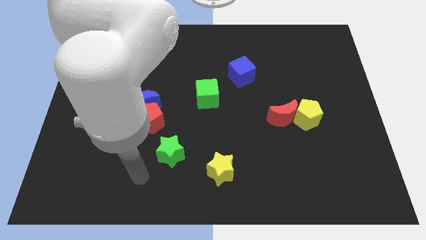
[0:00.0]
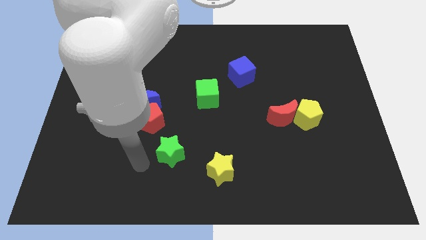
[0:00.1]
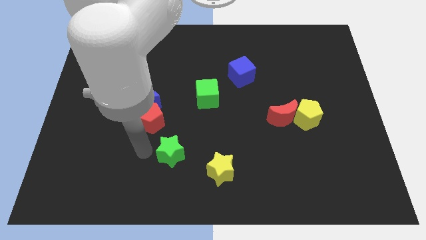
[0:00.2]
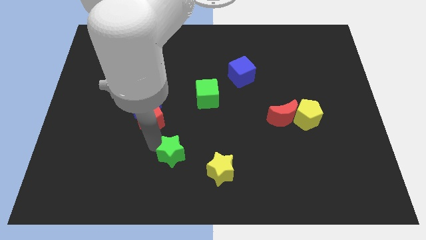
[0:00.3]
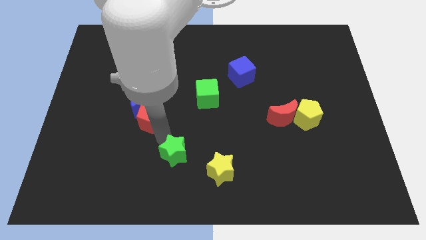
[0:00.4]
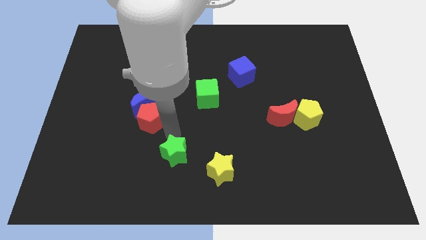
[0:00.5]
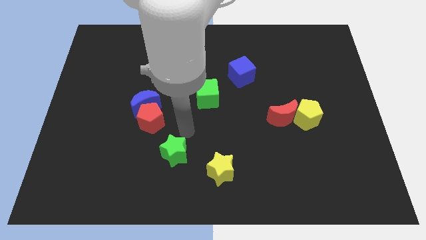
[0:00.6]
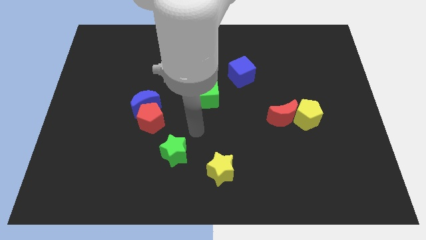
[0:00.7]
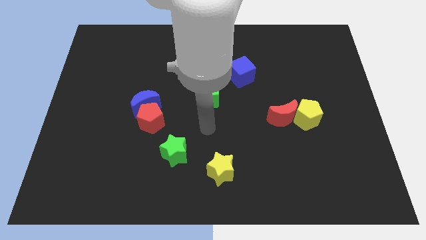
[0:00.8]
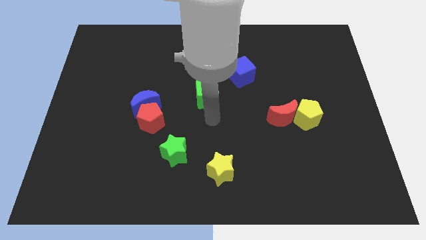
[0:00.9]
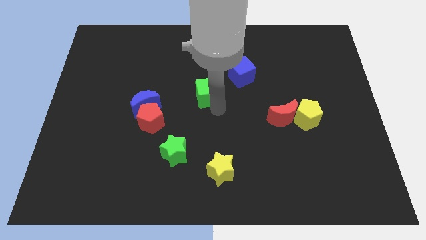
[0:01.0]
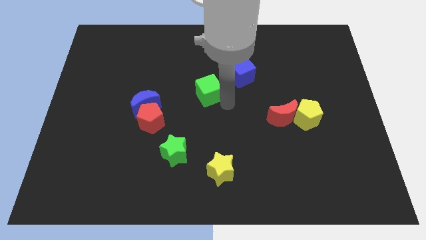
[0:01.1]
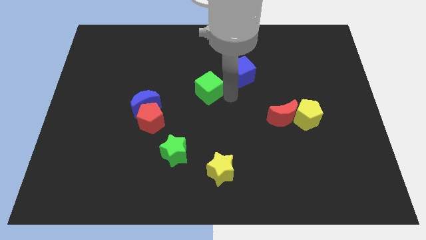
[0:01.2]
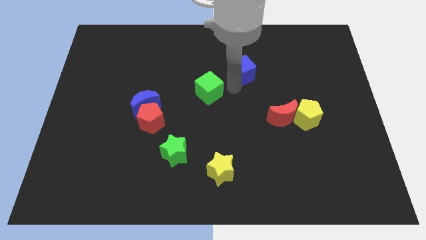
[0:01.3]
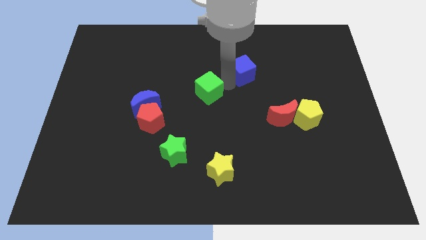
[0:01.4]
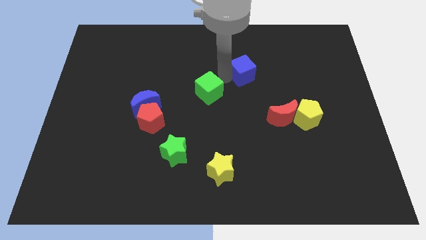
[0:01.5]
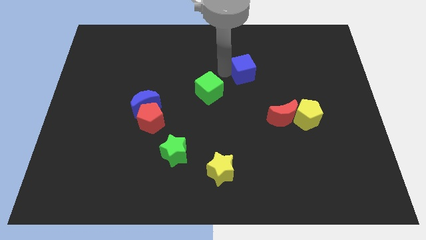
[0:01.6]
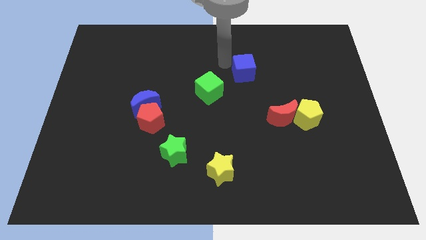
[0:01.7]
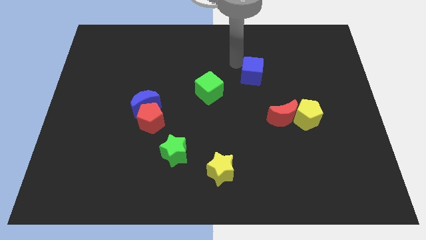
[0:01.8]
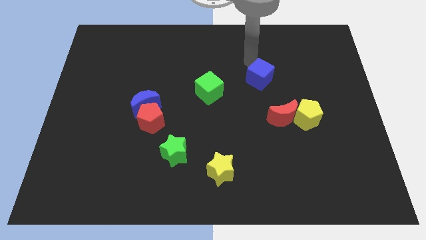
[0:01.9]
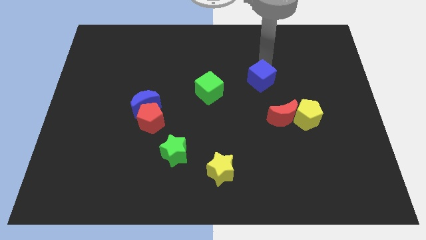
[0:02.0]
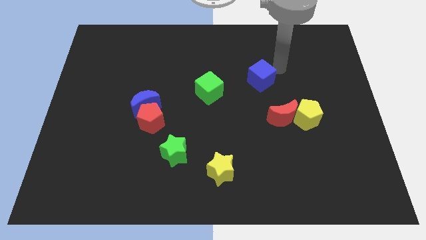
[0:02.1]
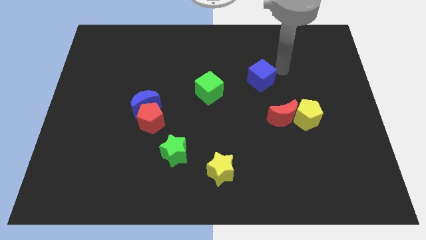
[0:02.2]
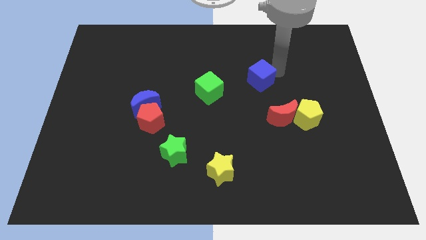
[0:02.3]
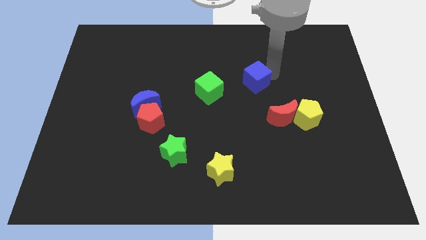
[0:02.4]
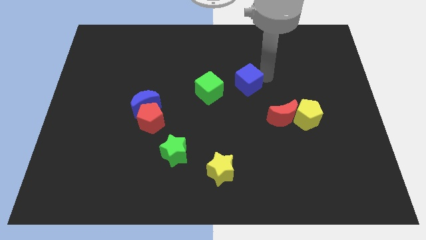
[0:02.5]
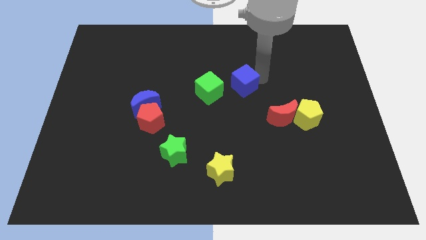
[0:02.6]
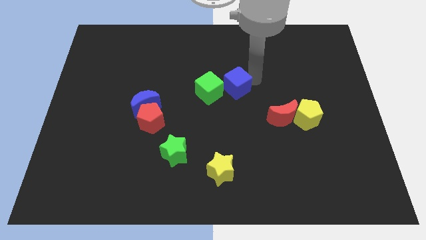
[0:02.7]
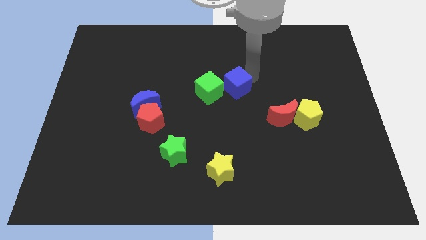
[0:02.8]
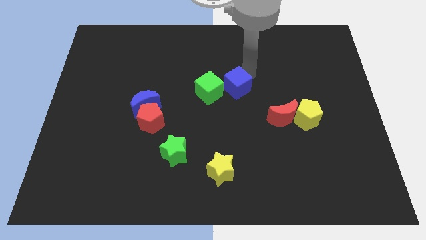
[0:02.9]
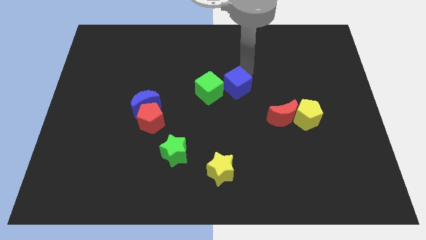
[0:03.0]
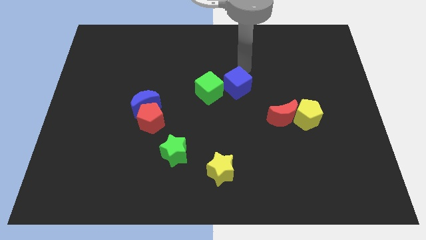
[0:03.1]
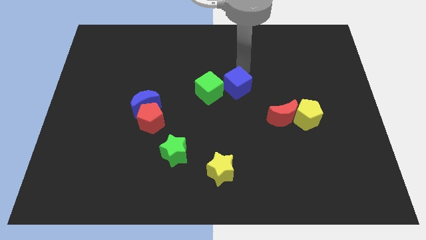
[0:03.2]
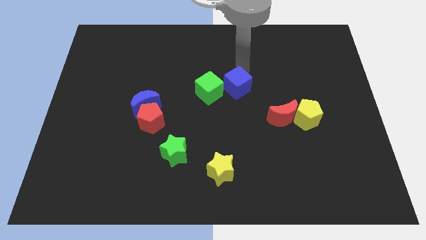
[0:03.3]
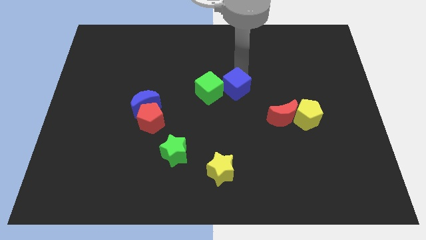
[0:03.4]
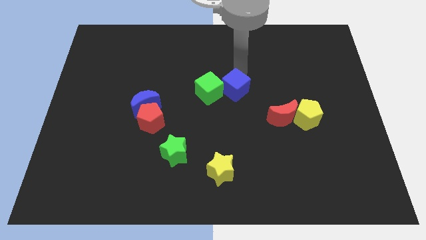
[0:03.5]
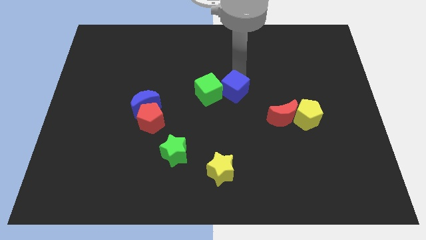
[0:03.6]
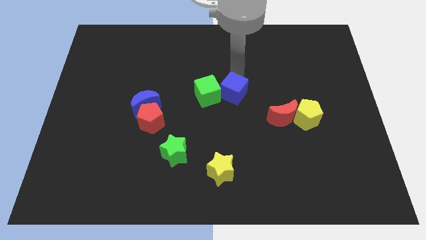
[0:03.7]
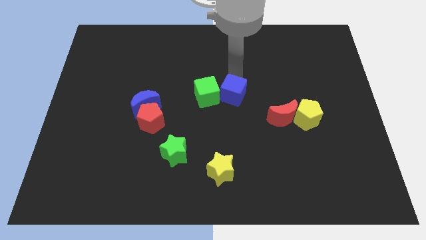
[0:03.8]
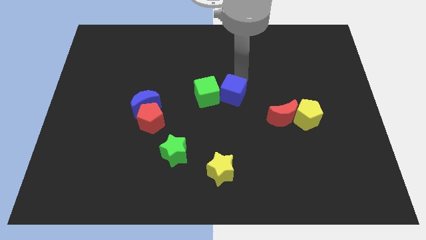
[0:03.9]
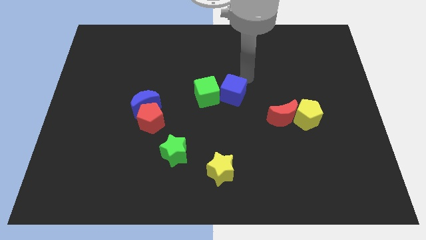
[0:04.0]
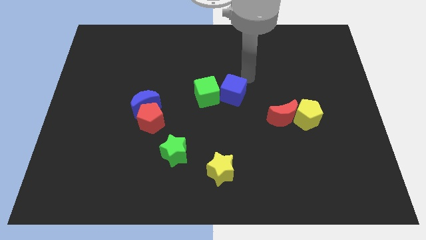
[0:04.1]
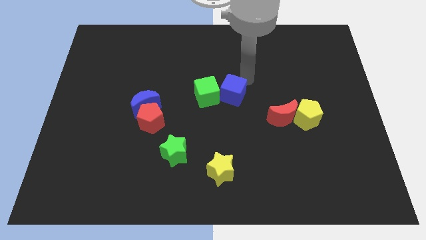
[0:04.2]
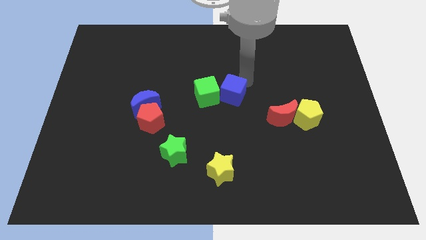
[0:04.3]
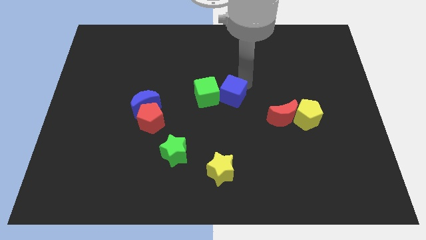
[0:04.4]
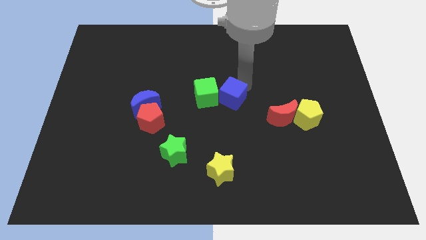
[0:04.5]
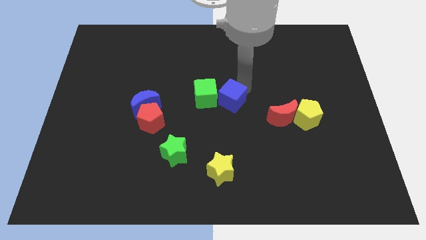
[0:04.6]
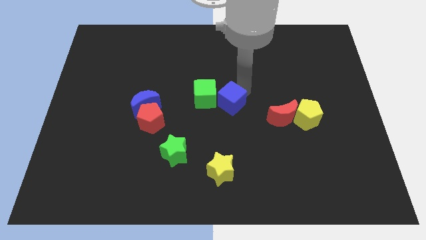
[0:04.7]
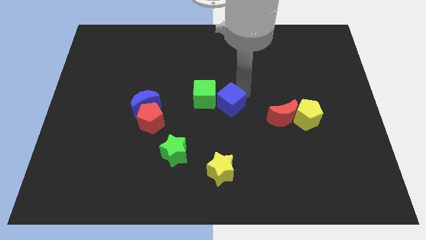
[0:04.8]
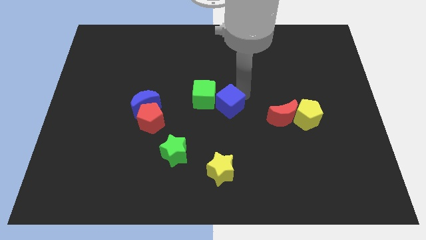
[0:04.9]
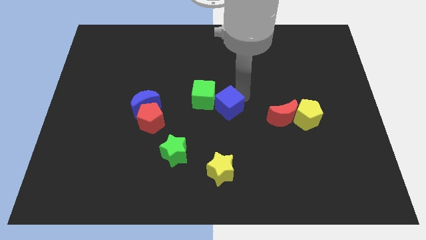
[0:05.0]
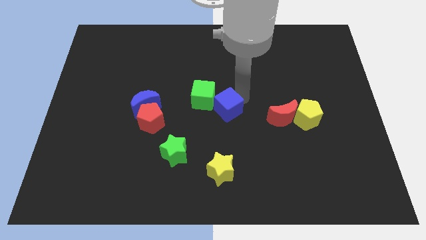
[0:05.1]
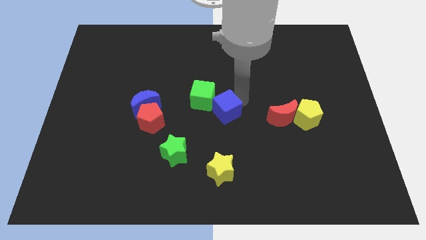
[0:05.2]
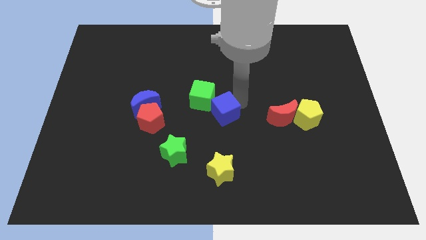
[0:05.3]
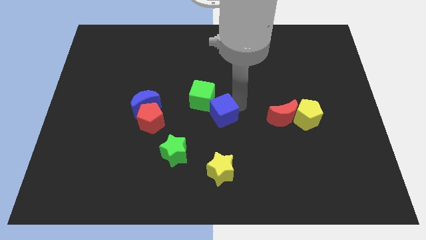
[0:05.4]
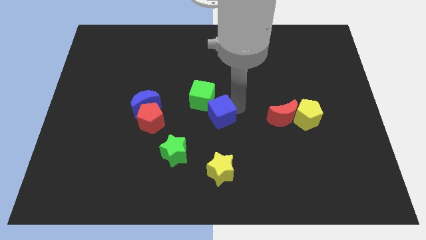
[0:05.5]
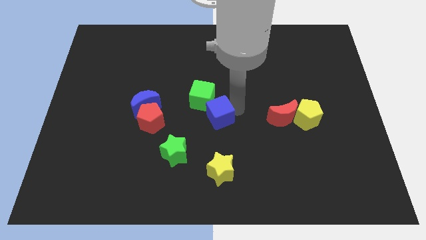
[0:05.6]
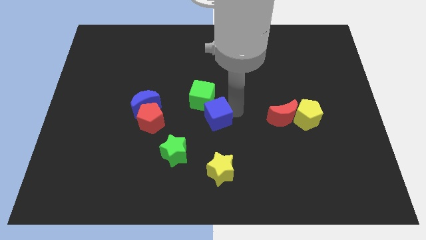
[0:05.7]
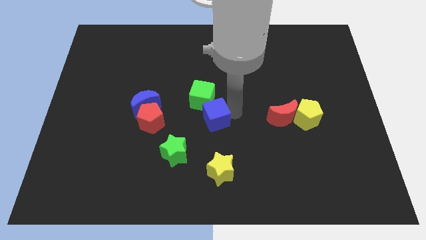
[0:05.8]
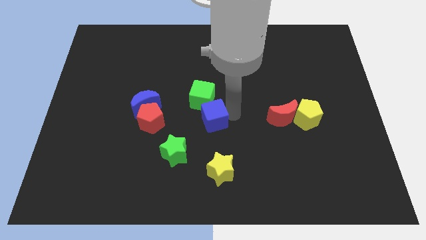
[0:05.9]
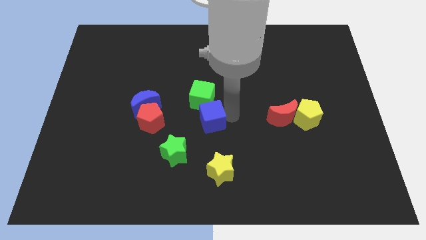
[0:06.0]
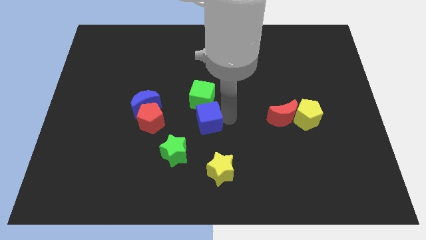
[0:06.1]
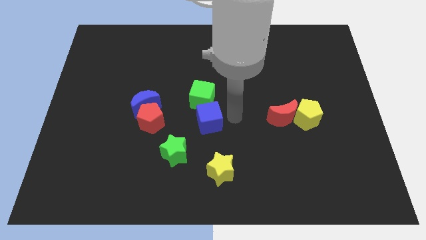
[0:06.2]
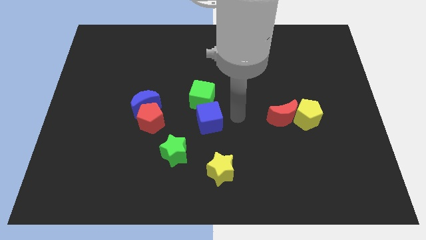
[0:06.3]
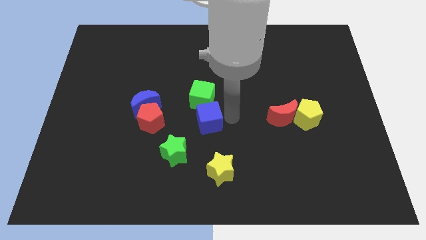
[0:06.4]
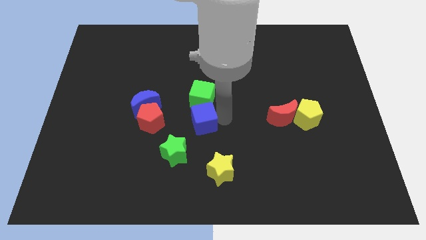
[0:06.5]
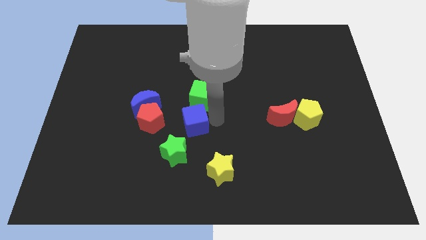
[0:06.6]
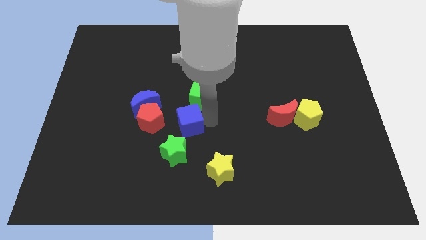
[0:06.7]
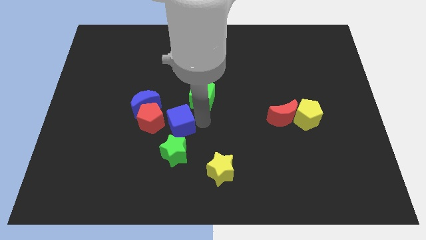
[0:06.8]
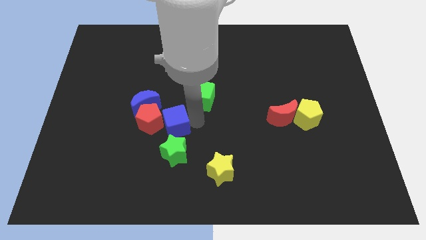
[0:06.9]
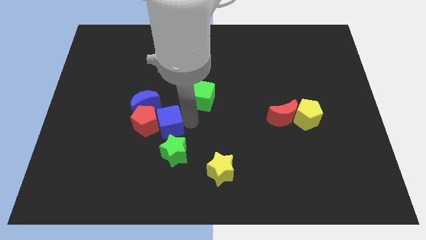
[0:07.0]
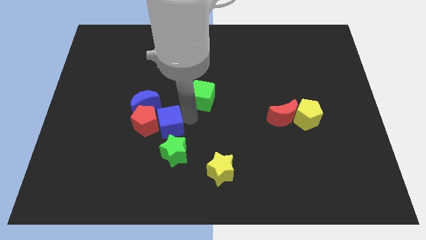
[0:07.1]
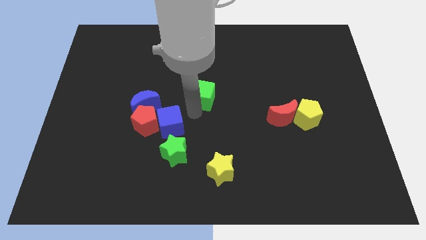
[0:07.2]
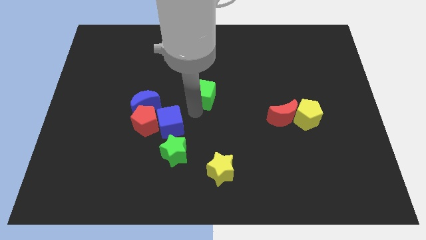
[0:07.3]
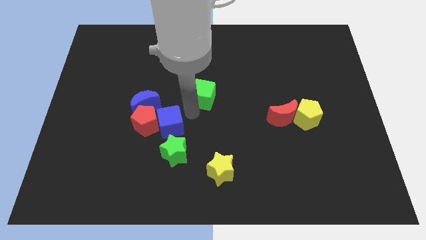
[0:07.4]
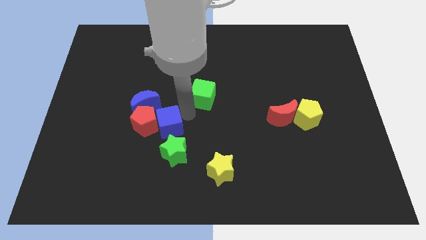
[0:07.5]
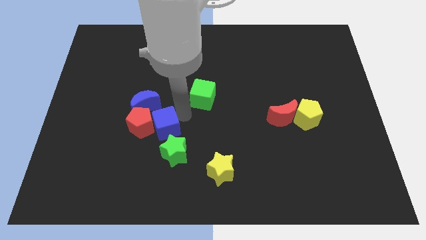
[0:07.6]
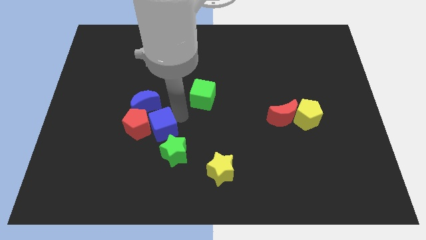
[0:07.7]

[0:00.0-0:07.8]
put the blue cube below the blue moon
